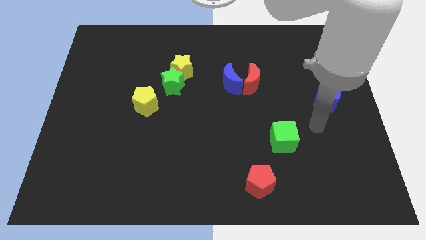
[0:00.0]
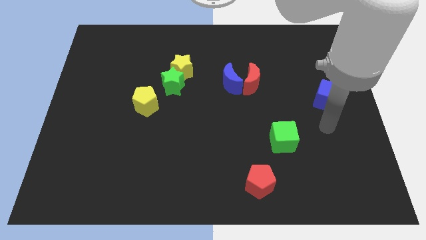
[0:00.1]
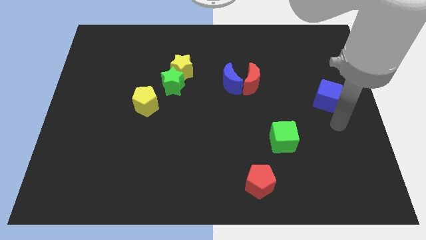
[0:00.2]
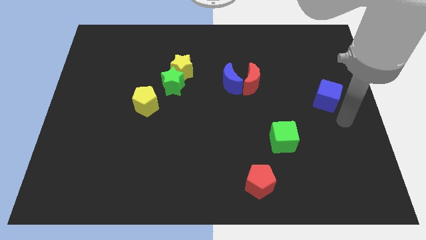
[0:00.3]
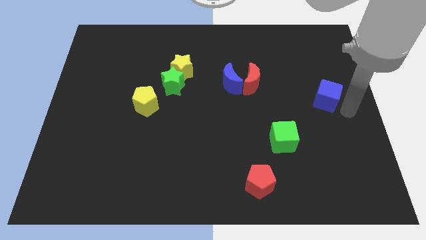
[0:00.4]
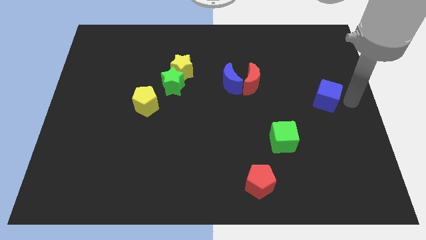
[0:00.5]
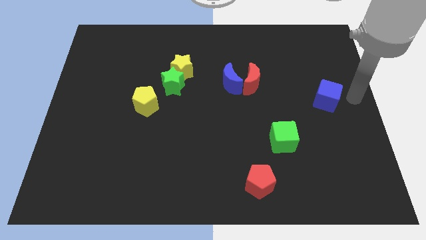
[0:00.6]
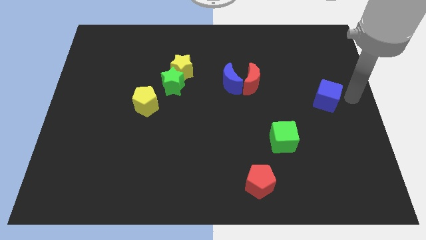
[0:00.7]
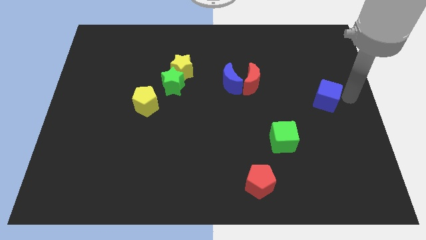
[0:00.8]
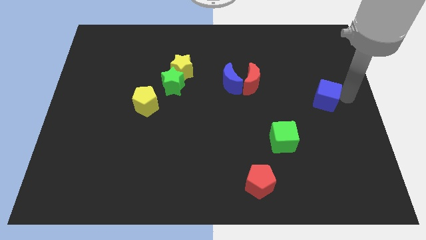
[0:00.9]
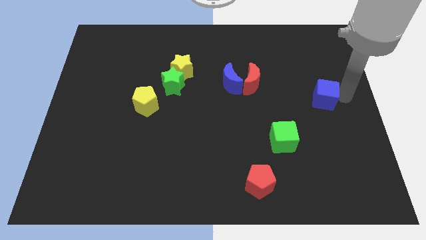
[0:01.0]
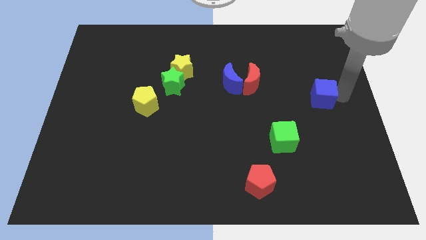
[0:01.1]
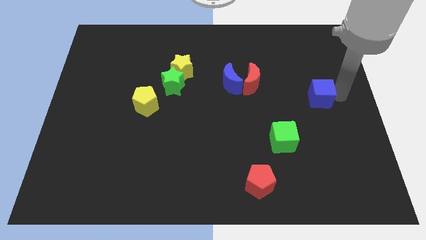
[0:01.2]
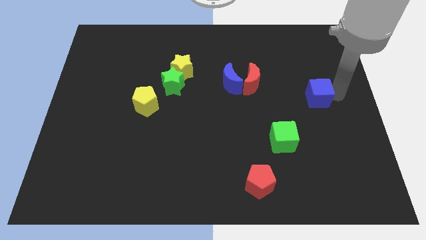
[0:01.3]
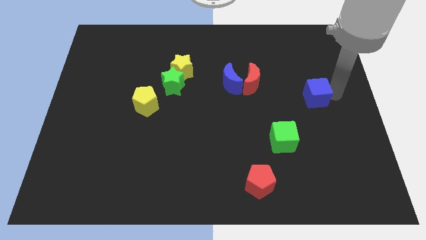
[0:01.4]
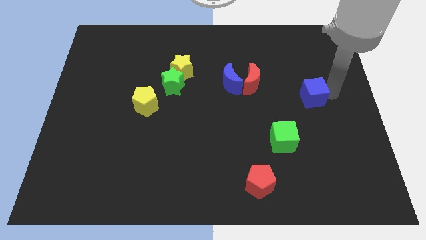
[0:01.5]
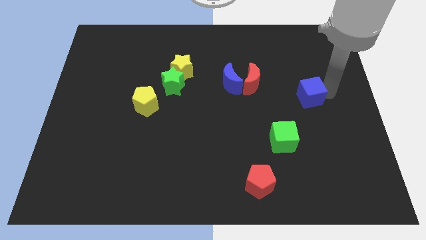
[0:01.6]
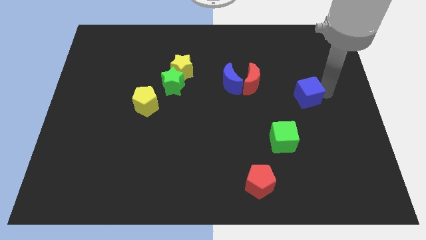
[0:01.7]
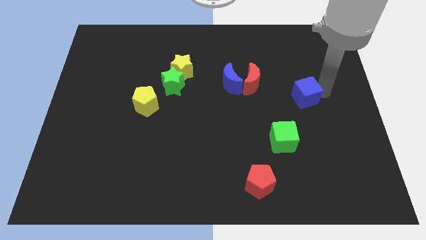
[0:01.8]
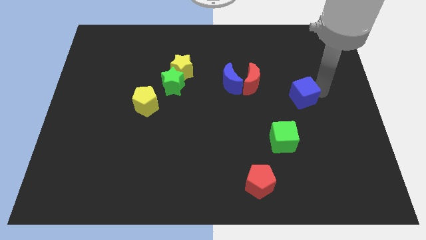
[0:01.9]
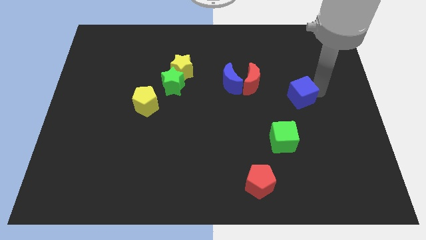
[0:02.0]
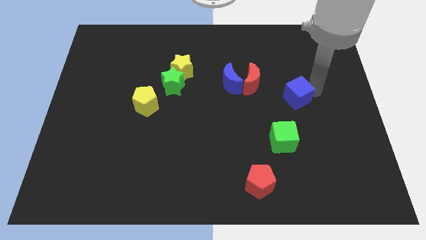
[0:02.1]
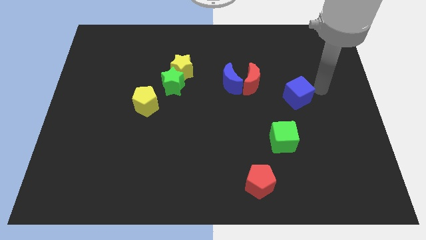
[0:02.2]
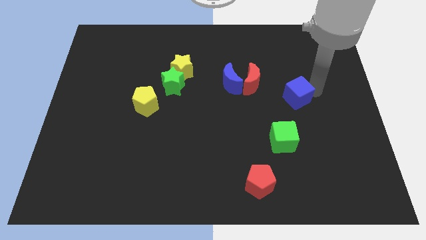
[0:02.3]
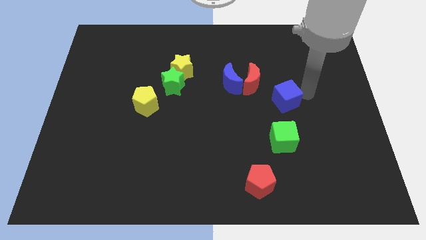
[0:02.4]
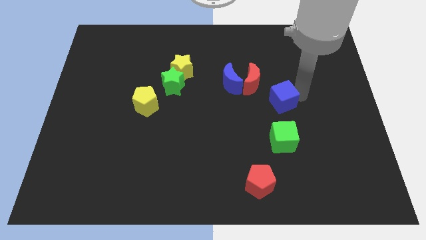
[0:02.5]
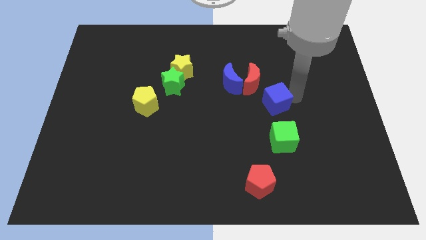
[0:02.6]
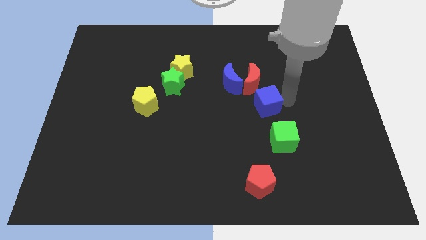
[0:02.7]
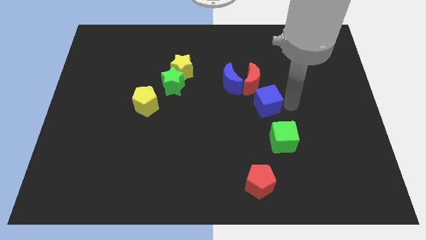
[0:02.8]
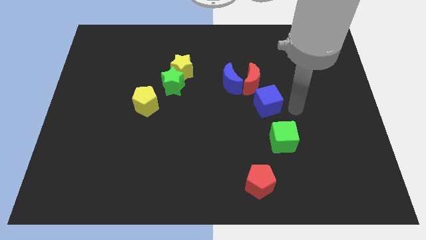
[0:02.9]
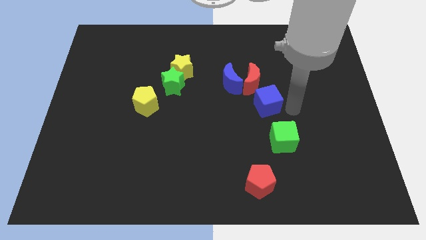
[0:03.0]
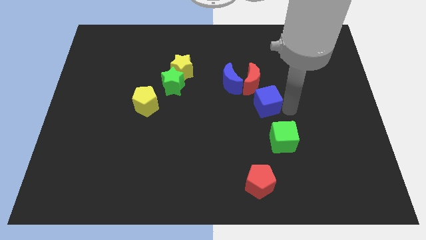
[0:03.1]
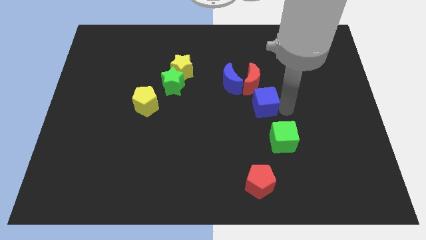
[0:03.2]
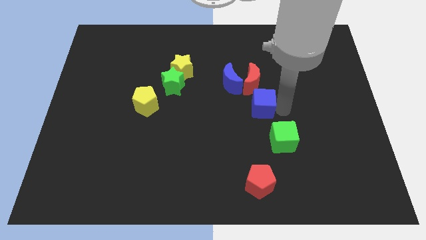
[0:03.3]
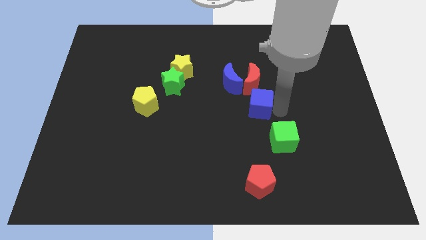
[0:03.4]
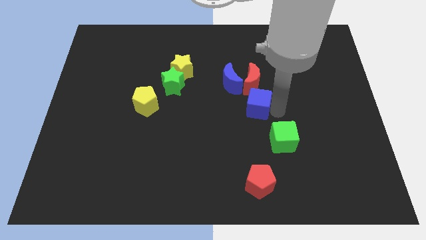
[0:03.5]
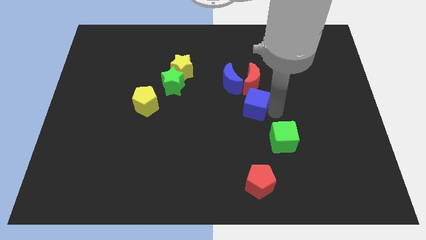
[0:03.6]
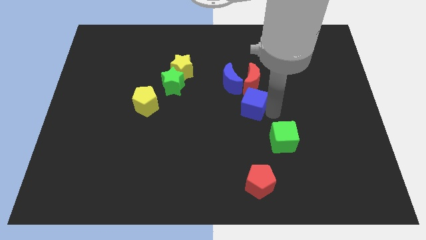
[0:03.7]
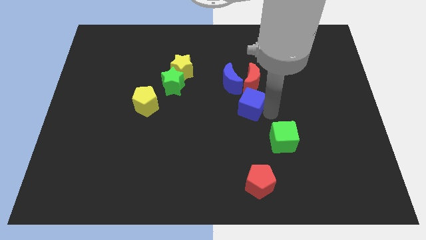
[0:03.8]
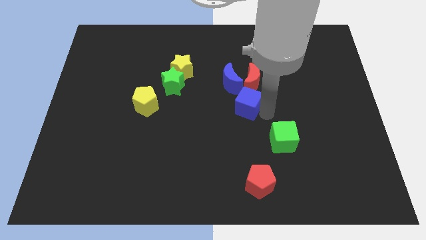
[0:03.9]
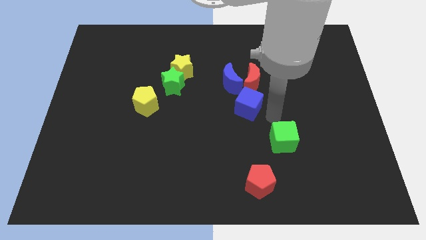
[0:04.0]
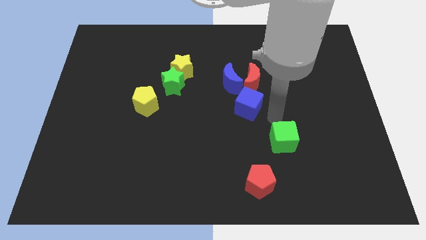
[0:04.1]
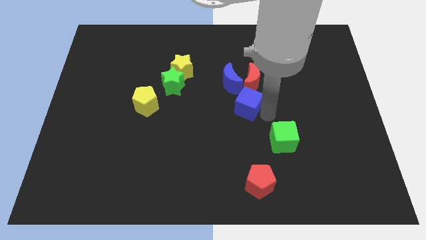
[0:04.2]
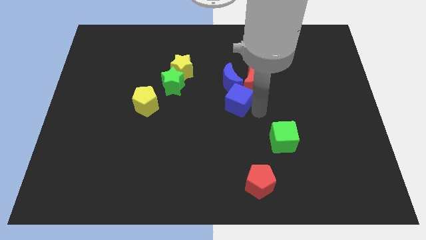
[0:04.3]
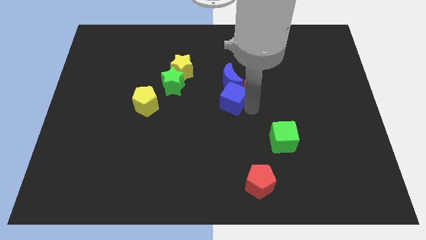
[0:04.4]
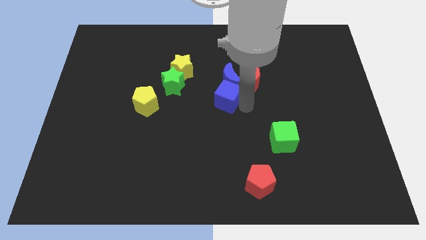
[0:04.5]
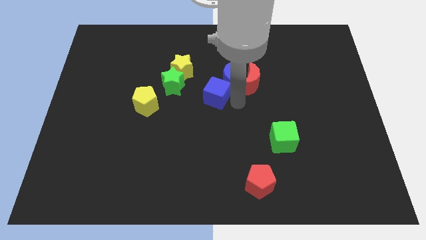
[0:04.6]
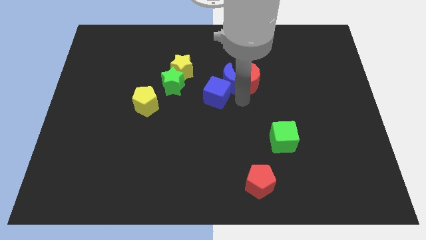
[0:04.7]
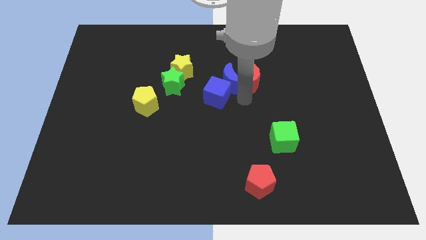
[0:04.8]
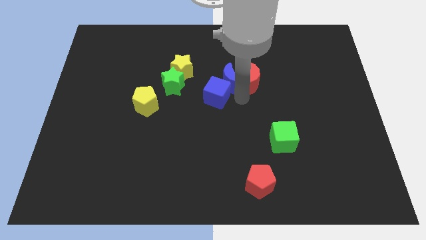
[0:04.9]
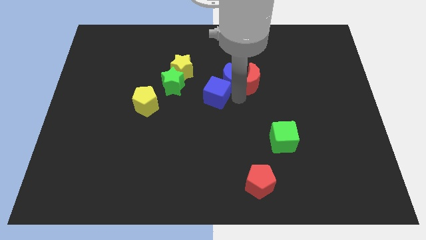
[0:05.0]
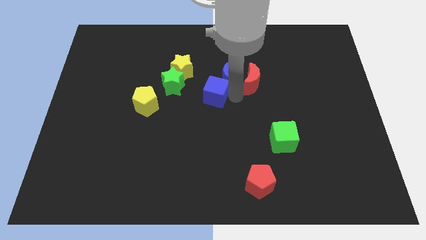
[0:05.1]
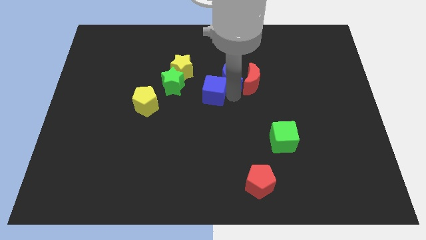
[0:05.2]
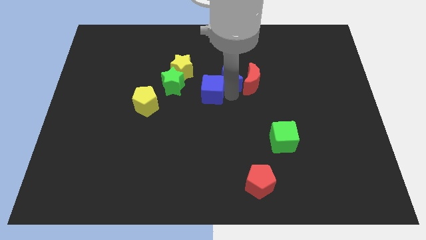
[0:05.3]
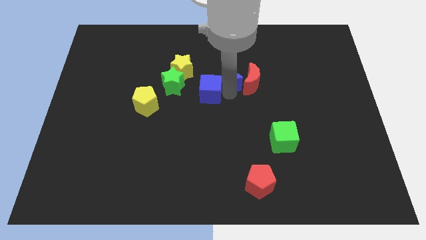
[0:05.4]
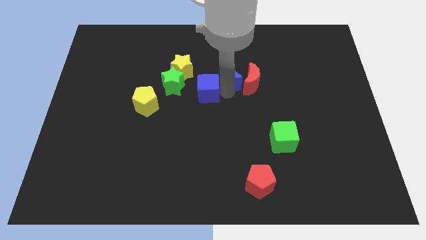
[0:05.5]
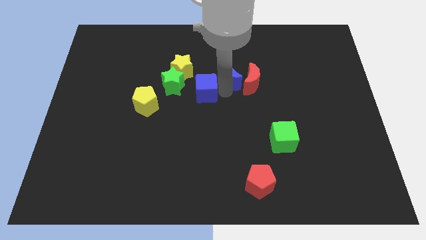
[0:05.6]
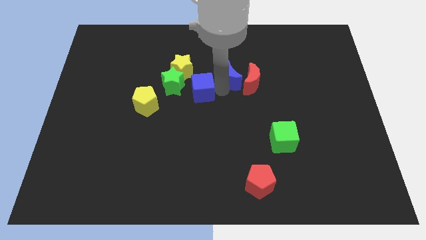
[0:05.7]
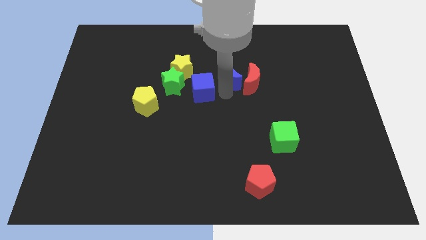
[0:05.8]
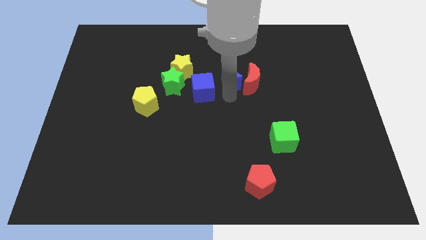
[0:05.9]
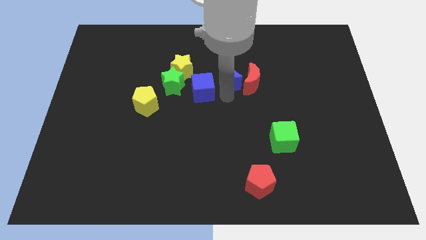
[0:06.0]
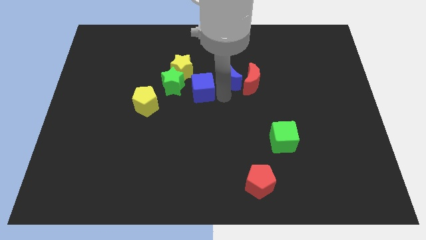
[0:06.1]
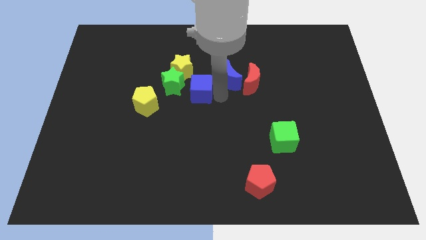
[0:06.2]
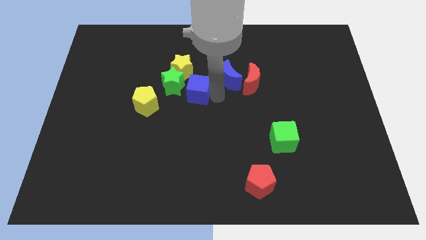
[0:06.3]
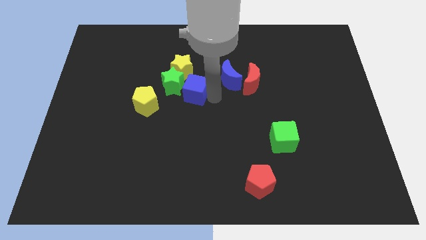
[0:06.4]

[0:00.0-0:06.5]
move the blue cube towards the green star

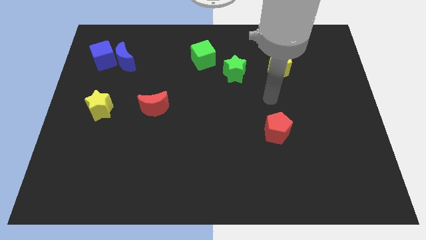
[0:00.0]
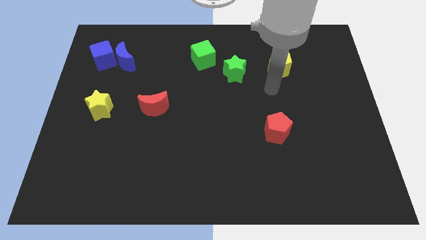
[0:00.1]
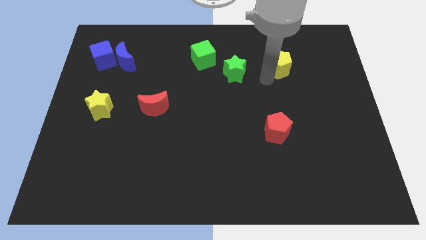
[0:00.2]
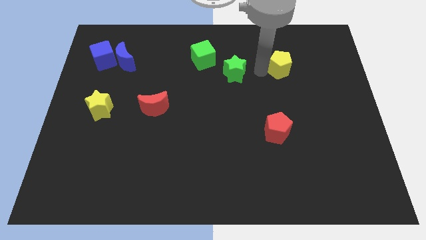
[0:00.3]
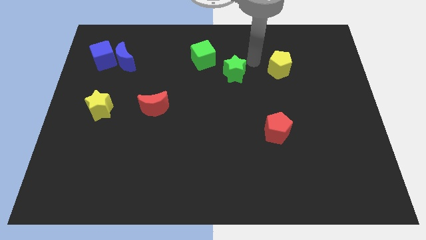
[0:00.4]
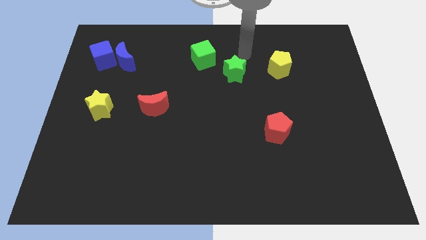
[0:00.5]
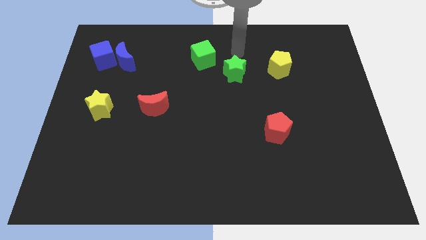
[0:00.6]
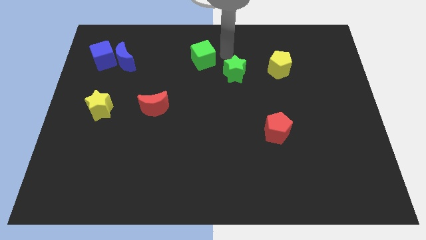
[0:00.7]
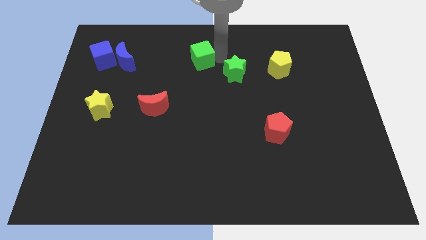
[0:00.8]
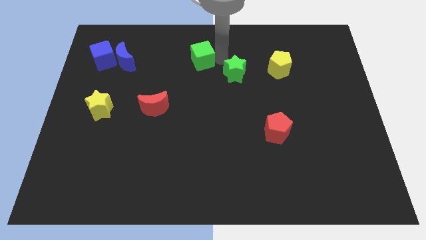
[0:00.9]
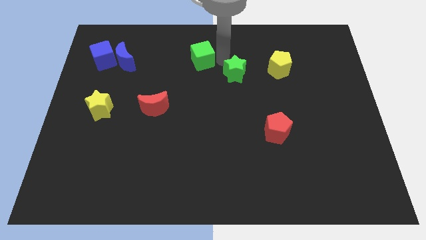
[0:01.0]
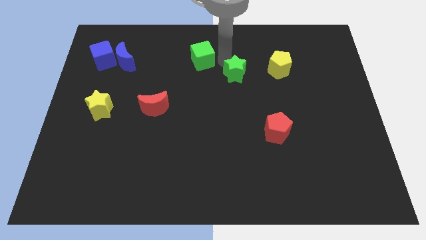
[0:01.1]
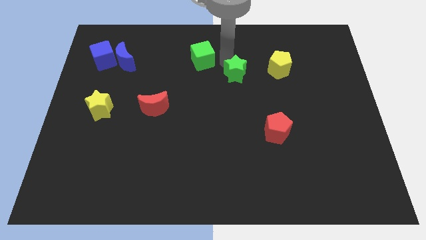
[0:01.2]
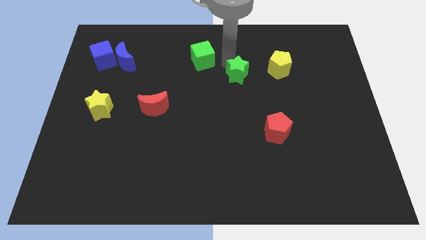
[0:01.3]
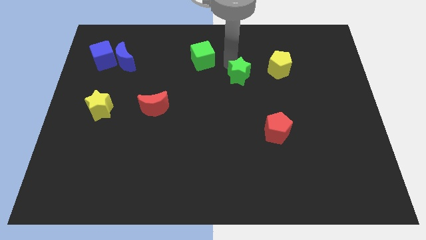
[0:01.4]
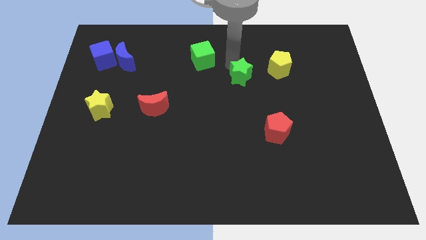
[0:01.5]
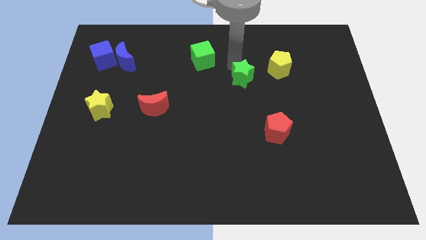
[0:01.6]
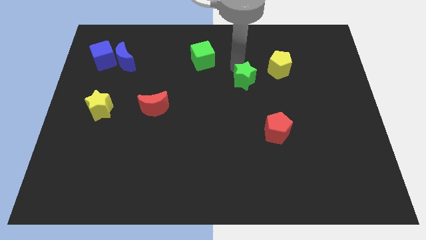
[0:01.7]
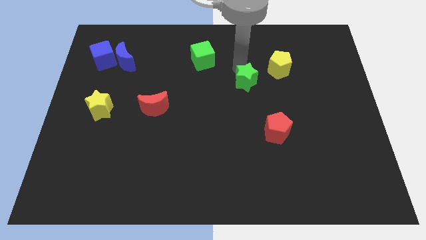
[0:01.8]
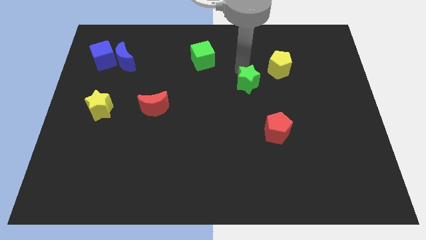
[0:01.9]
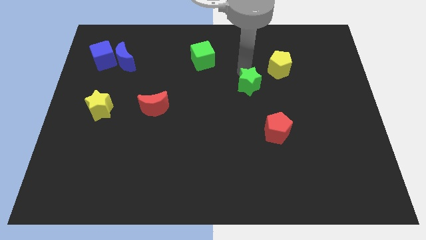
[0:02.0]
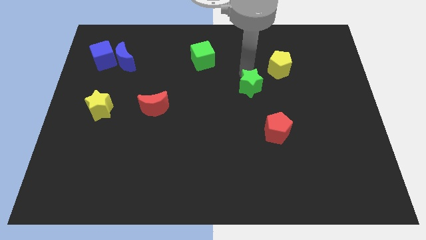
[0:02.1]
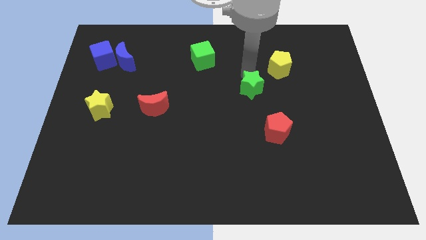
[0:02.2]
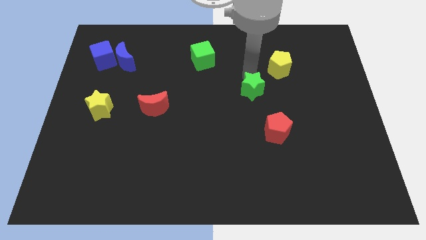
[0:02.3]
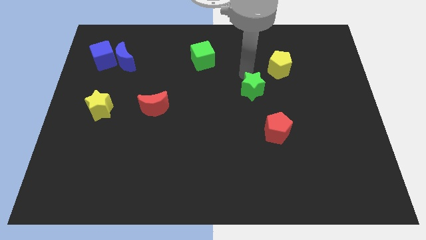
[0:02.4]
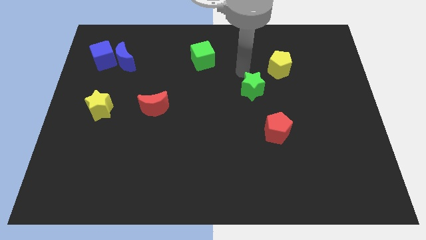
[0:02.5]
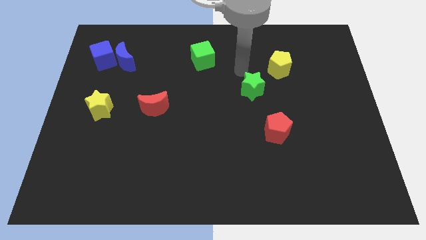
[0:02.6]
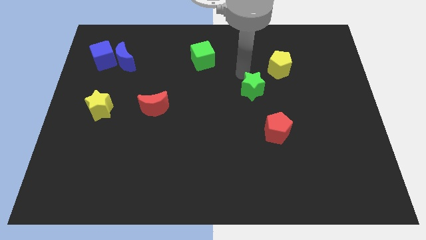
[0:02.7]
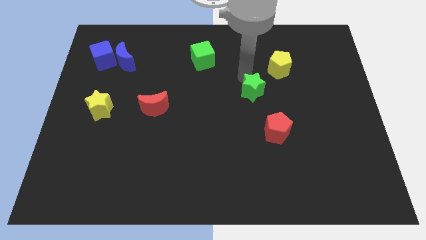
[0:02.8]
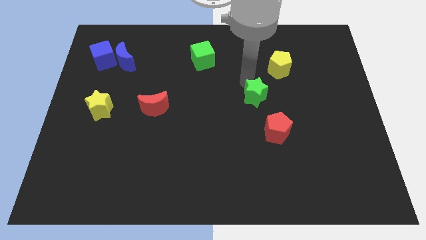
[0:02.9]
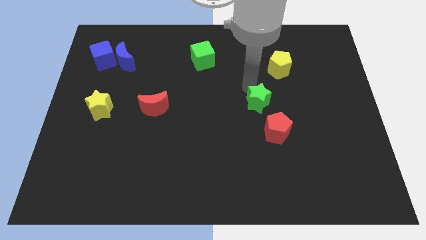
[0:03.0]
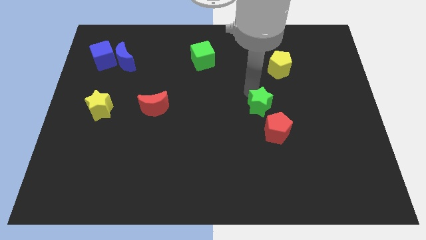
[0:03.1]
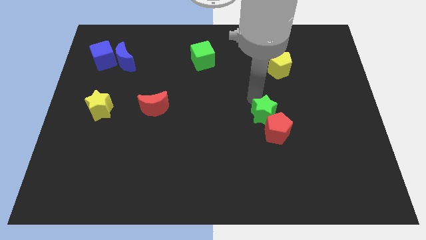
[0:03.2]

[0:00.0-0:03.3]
slide the green star towards the red pentagon
